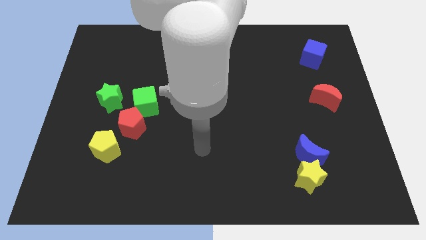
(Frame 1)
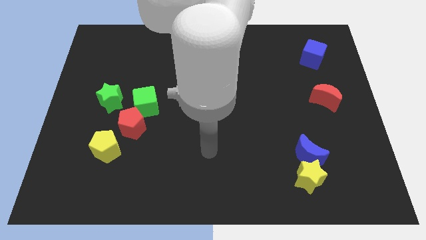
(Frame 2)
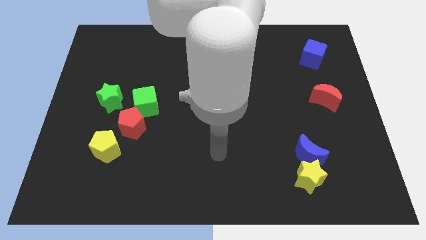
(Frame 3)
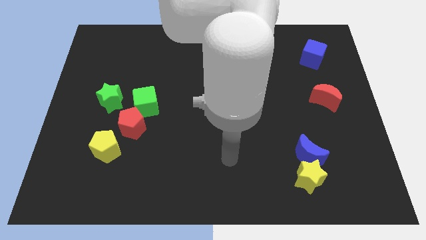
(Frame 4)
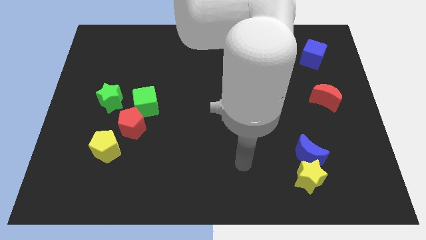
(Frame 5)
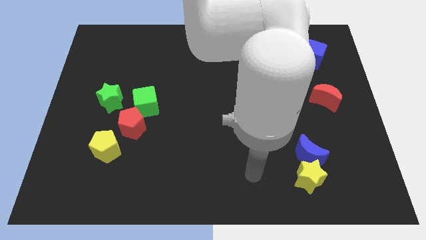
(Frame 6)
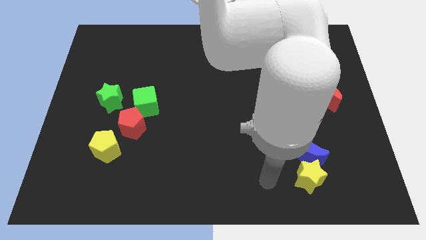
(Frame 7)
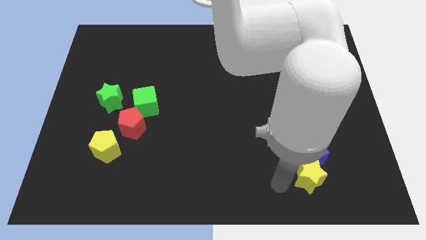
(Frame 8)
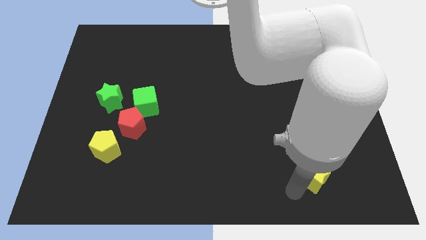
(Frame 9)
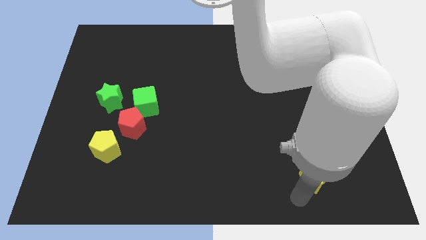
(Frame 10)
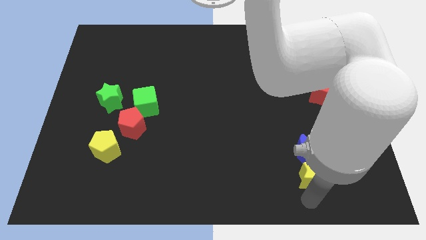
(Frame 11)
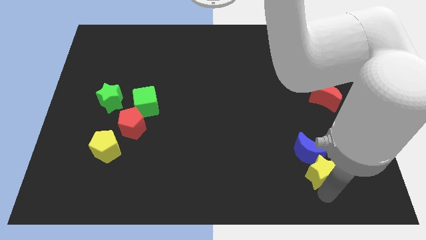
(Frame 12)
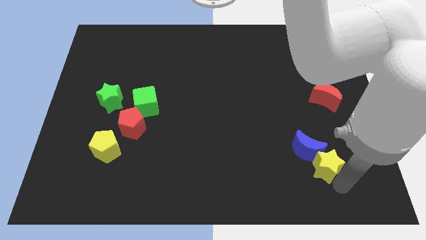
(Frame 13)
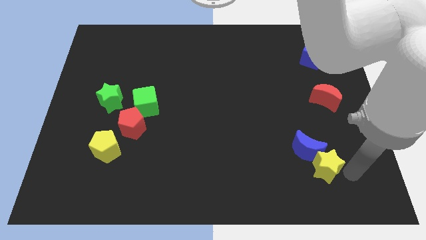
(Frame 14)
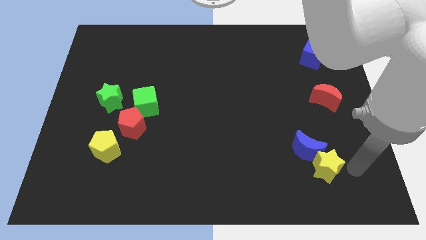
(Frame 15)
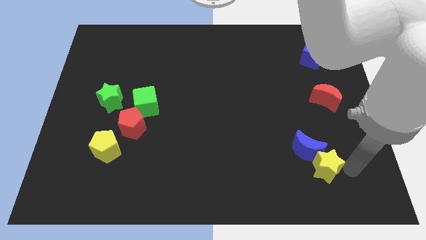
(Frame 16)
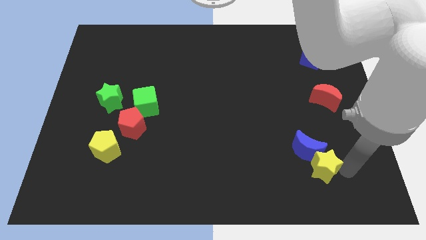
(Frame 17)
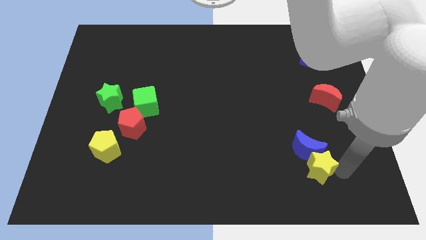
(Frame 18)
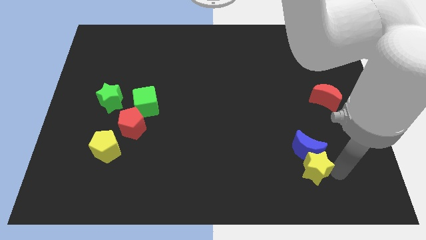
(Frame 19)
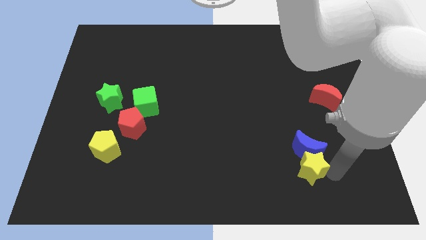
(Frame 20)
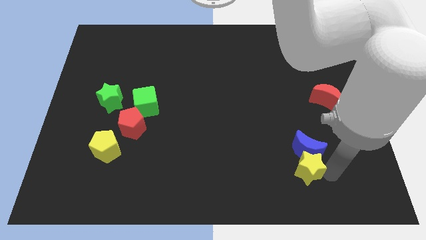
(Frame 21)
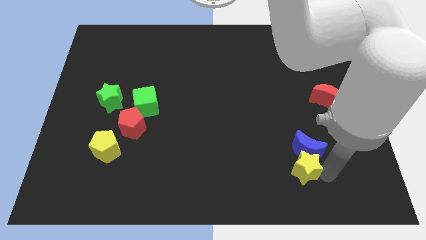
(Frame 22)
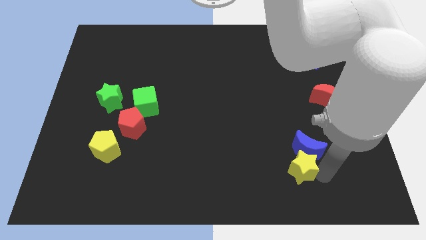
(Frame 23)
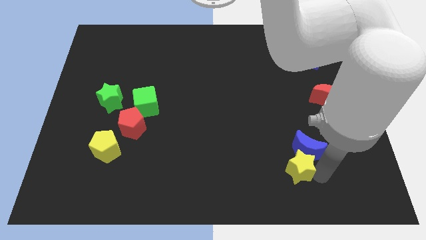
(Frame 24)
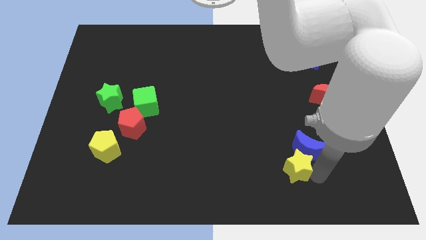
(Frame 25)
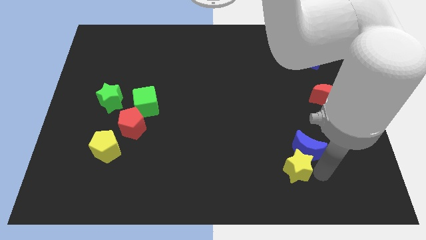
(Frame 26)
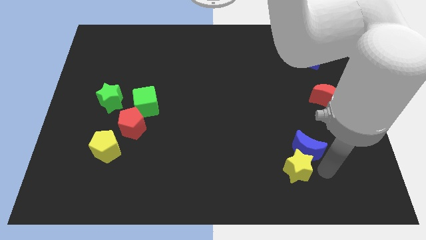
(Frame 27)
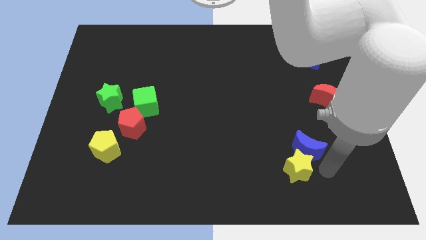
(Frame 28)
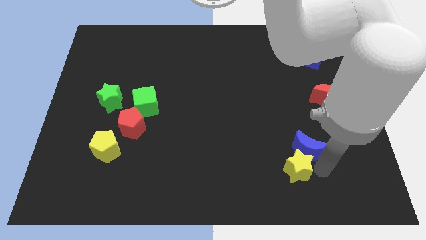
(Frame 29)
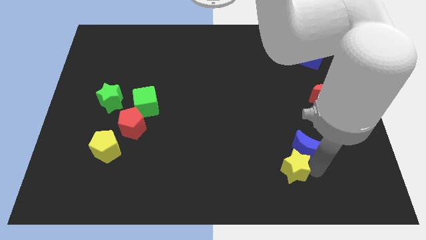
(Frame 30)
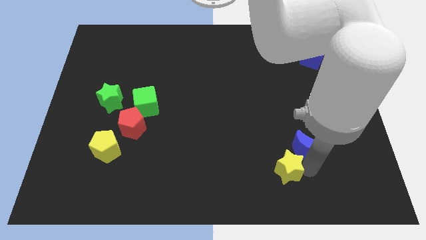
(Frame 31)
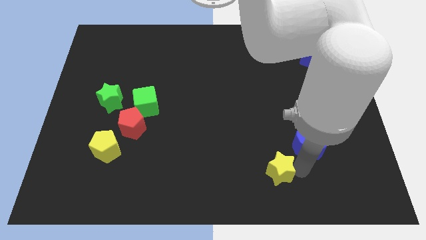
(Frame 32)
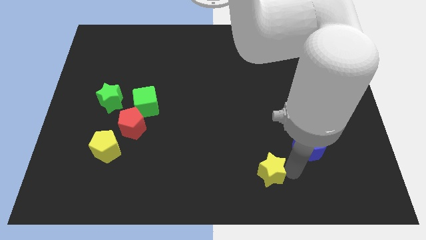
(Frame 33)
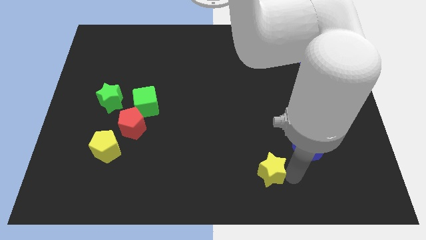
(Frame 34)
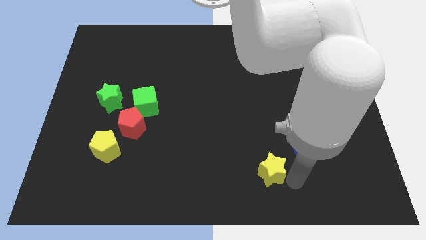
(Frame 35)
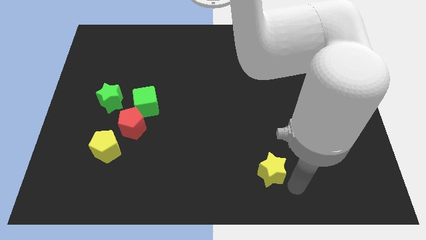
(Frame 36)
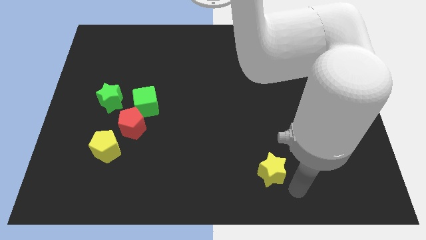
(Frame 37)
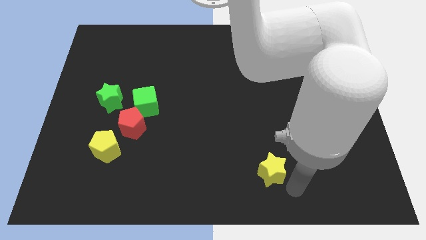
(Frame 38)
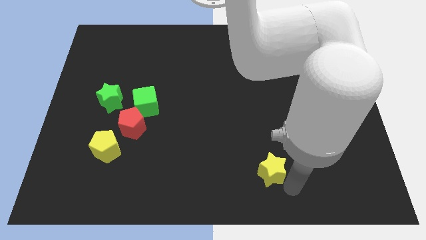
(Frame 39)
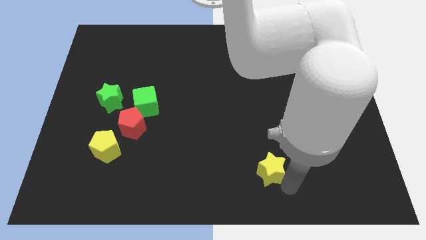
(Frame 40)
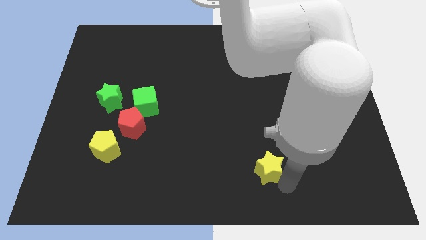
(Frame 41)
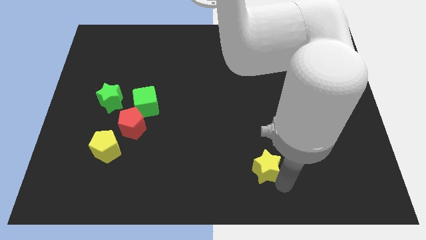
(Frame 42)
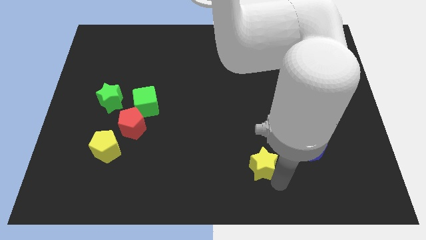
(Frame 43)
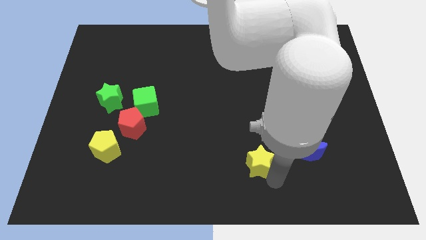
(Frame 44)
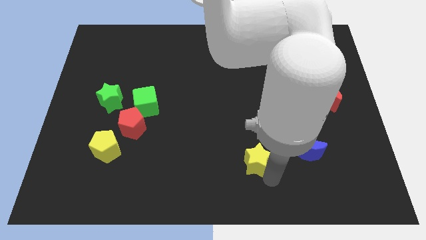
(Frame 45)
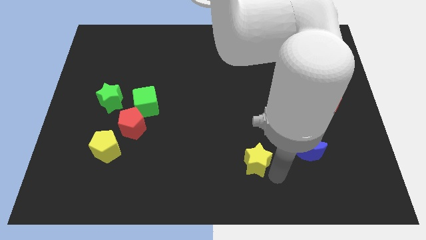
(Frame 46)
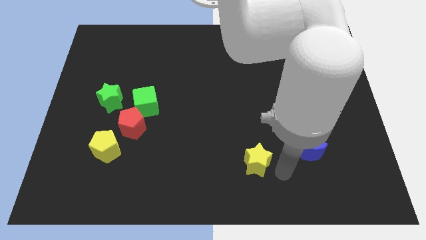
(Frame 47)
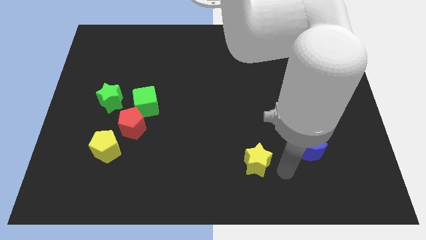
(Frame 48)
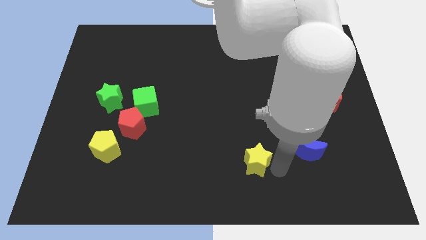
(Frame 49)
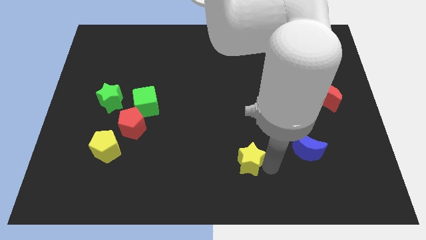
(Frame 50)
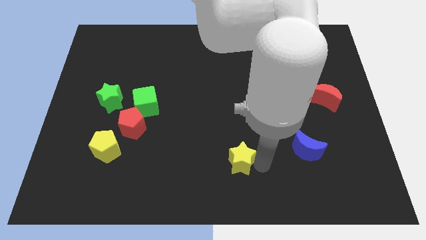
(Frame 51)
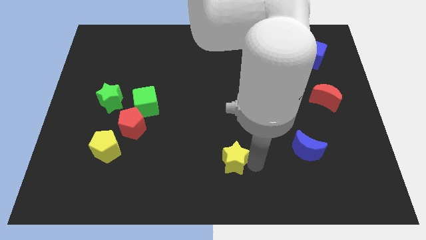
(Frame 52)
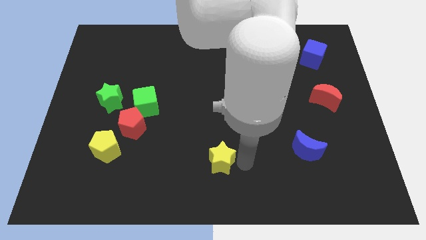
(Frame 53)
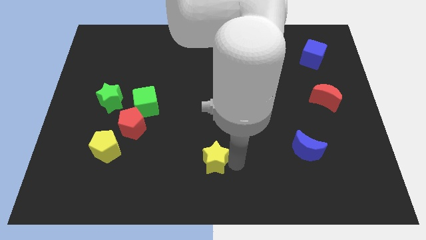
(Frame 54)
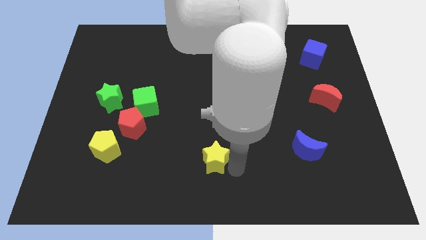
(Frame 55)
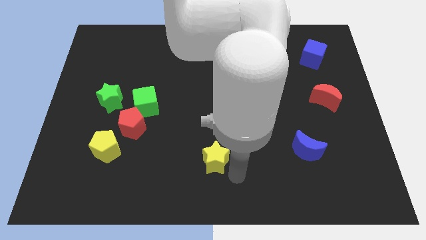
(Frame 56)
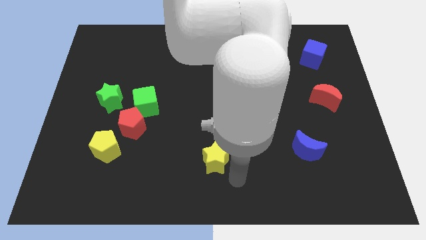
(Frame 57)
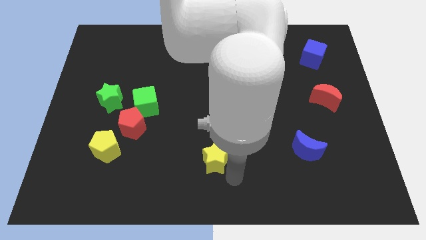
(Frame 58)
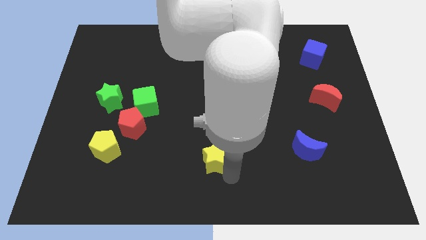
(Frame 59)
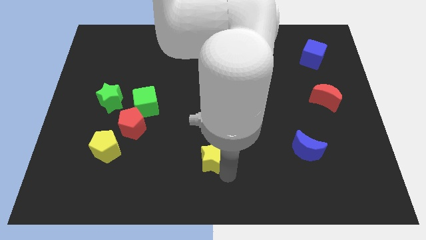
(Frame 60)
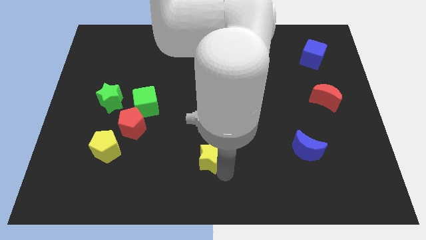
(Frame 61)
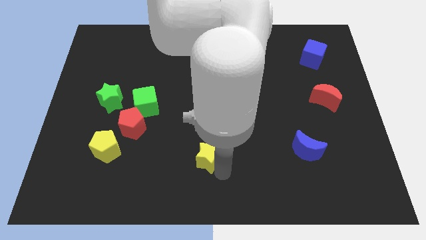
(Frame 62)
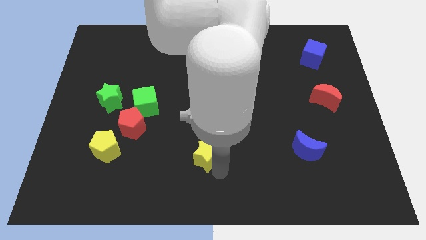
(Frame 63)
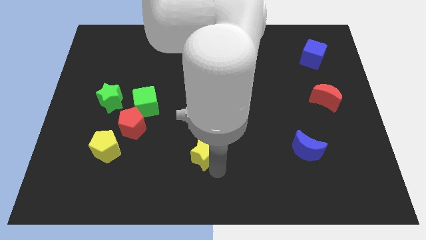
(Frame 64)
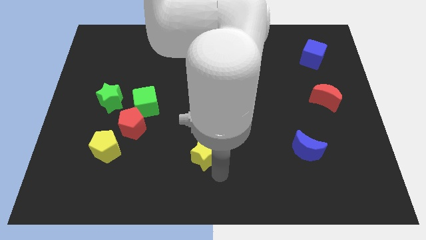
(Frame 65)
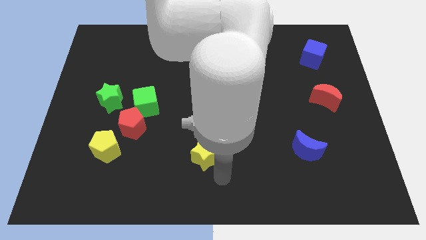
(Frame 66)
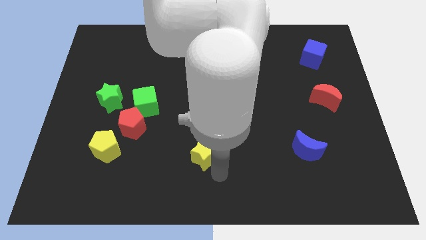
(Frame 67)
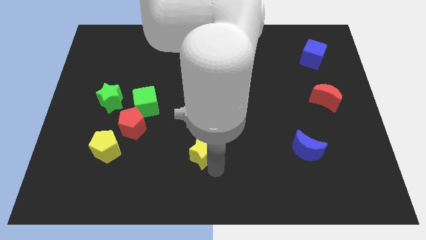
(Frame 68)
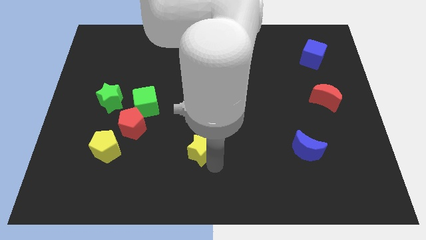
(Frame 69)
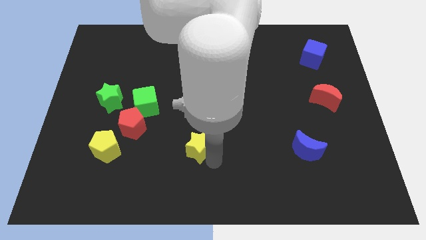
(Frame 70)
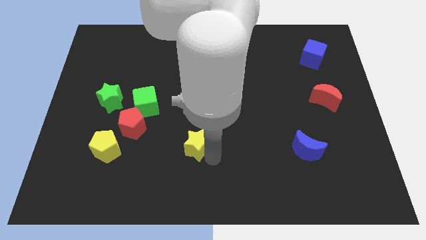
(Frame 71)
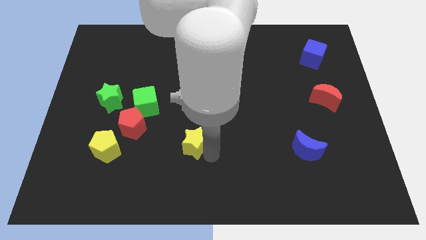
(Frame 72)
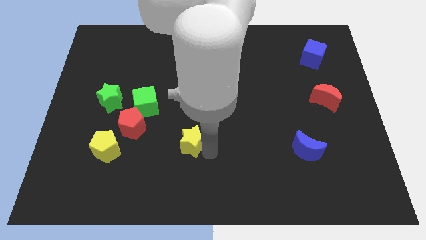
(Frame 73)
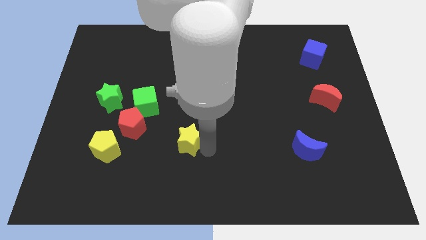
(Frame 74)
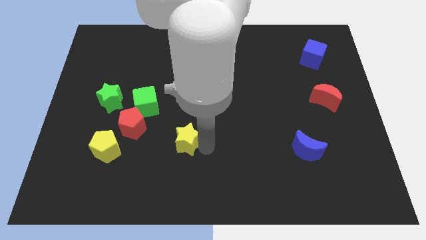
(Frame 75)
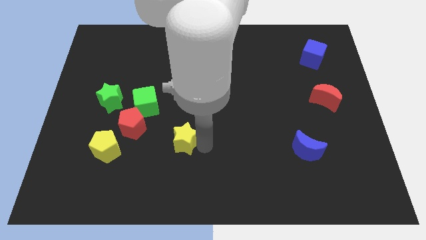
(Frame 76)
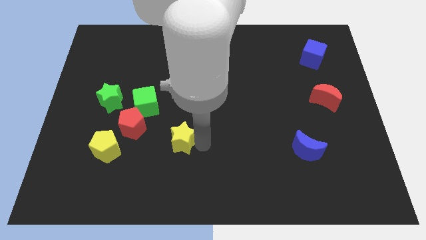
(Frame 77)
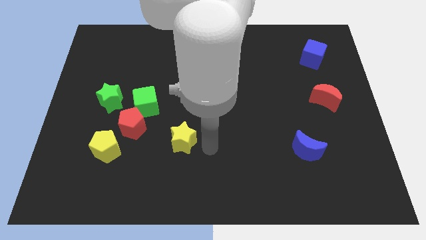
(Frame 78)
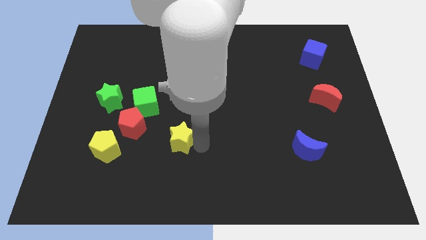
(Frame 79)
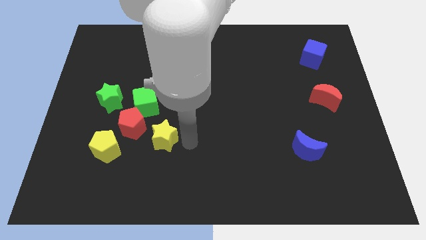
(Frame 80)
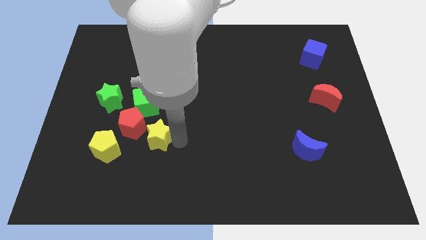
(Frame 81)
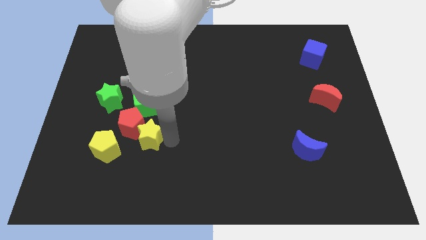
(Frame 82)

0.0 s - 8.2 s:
move the yellow star to the red pentagon

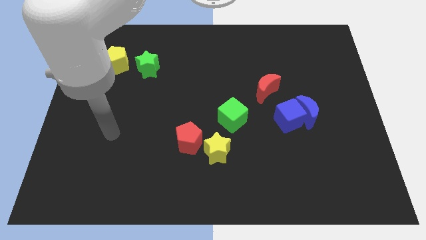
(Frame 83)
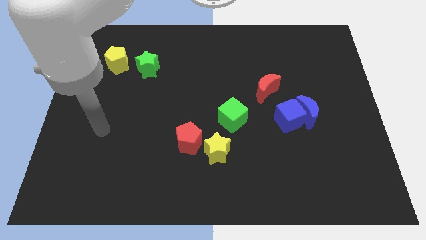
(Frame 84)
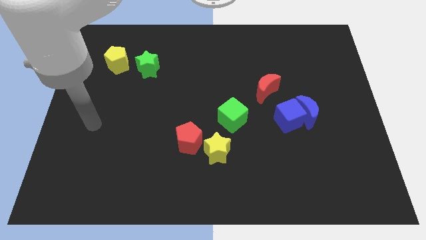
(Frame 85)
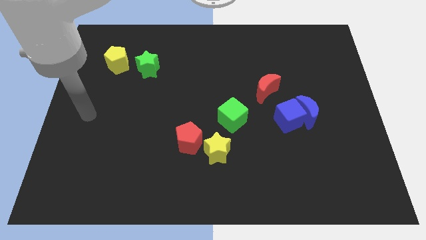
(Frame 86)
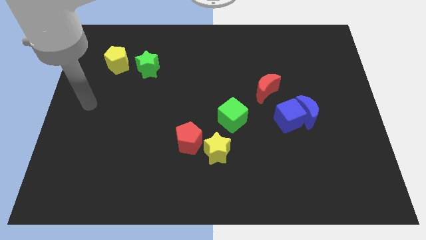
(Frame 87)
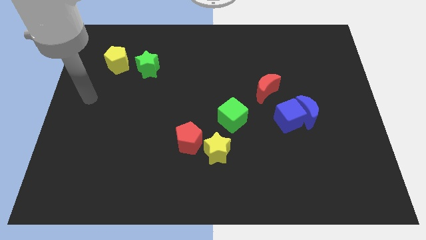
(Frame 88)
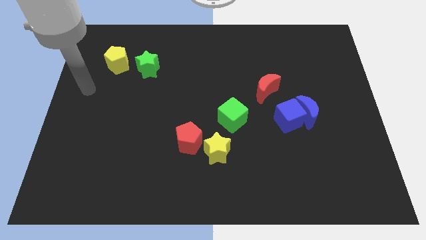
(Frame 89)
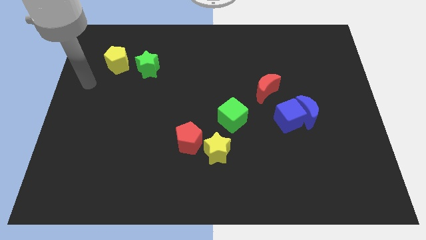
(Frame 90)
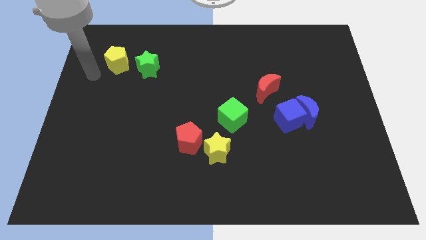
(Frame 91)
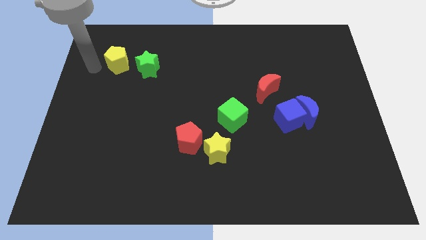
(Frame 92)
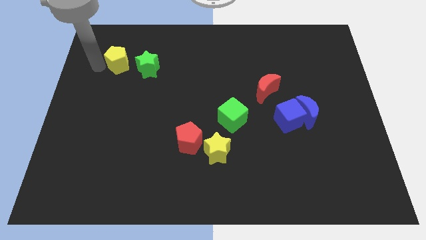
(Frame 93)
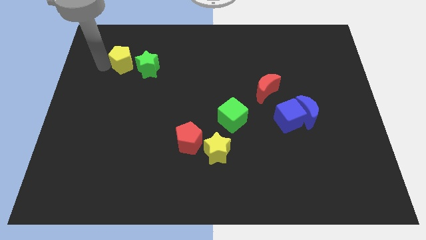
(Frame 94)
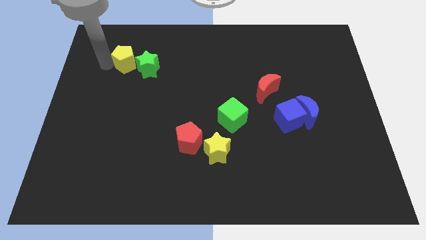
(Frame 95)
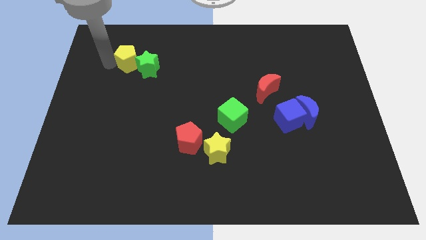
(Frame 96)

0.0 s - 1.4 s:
put the yellow pentagon towards the green star
